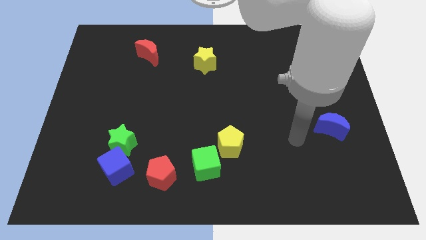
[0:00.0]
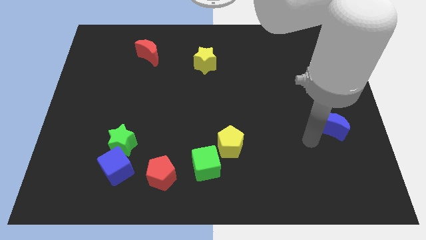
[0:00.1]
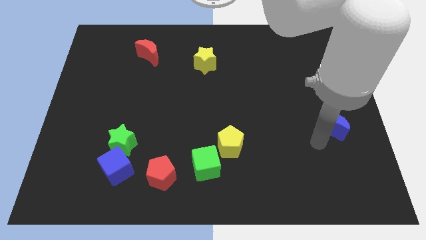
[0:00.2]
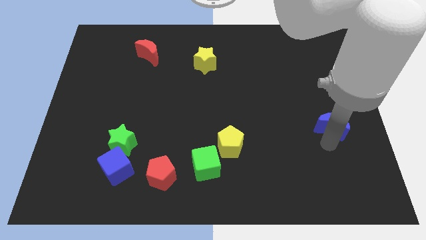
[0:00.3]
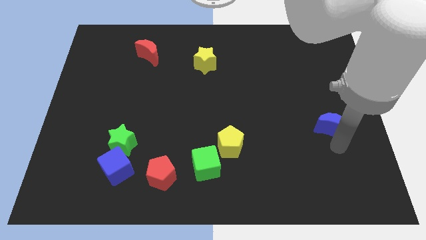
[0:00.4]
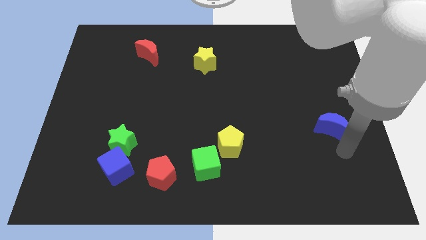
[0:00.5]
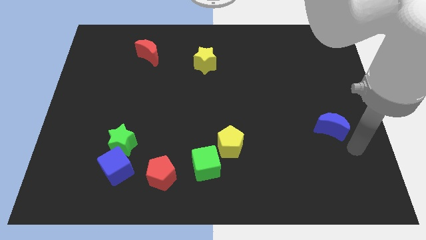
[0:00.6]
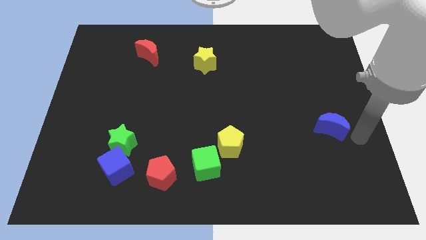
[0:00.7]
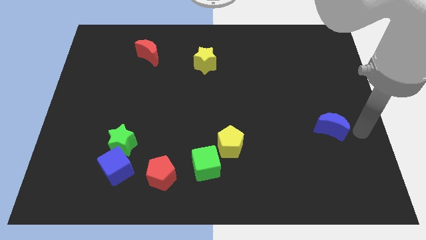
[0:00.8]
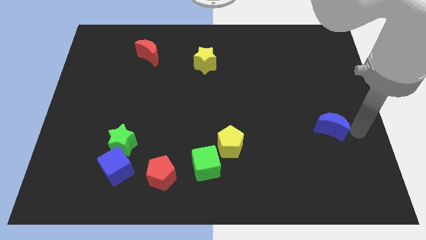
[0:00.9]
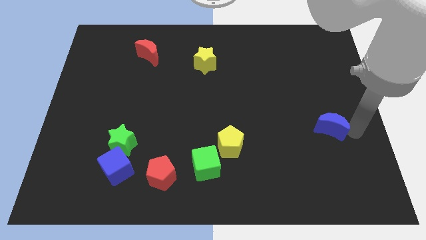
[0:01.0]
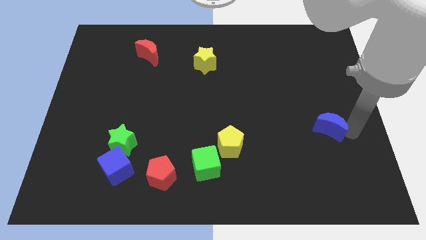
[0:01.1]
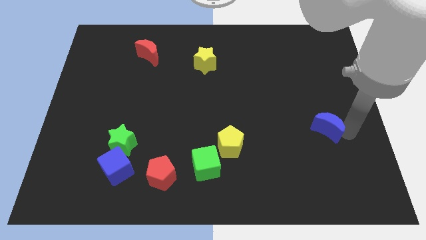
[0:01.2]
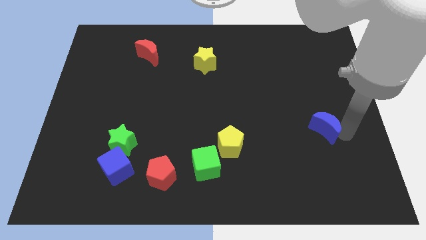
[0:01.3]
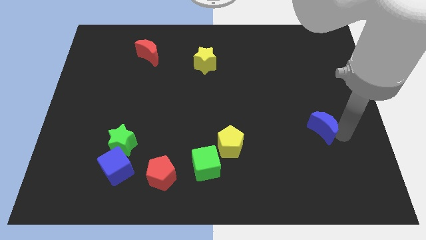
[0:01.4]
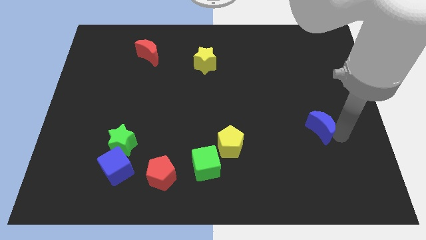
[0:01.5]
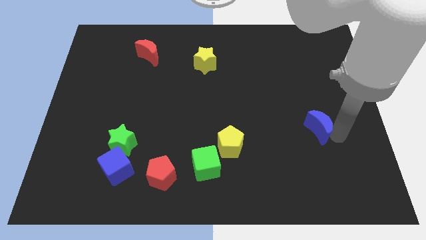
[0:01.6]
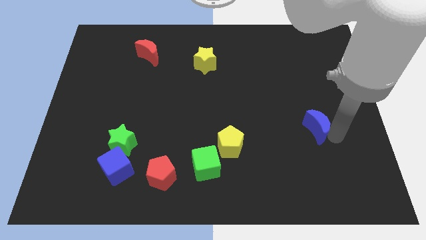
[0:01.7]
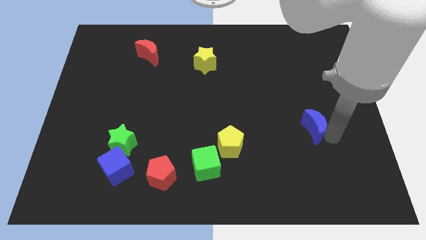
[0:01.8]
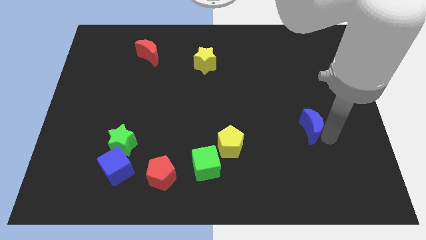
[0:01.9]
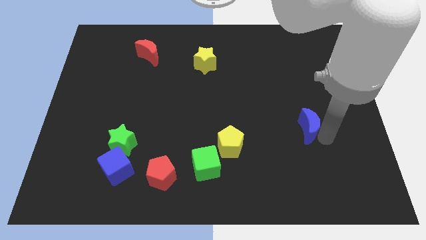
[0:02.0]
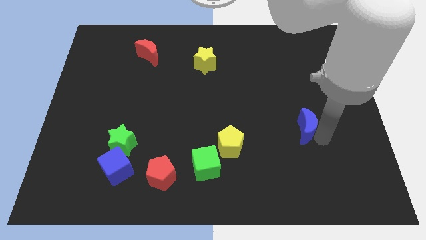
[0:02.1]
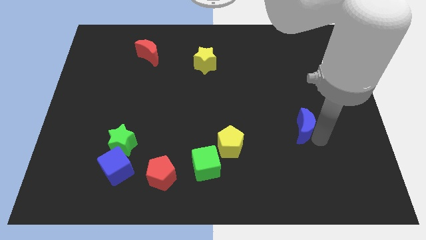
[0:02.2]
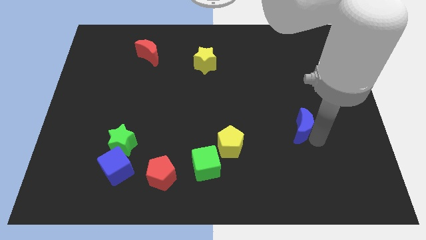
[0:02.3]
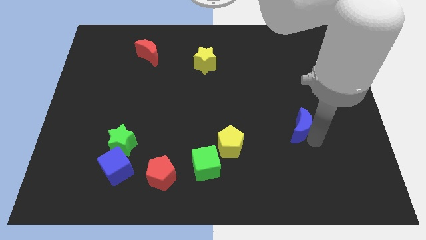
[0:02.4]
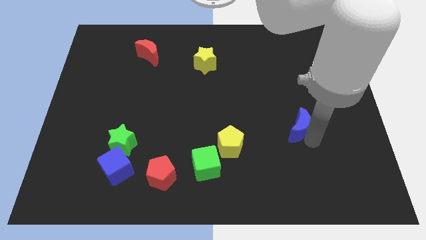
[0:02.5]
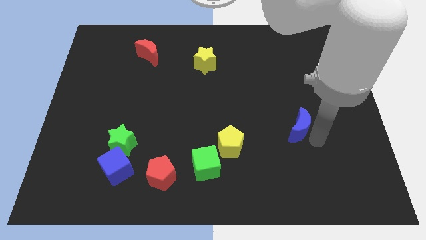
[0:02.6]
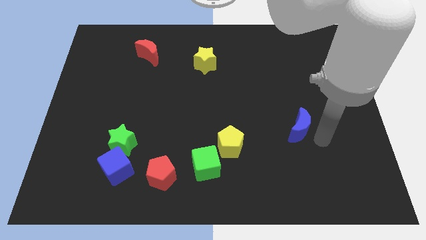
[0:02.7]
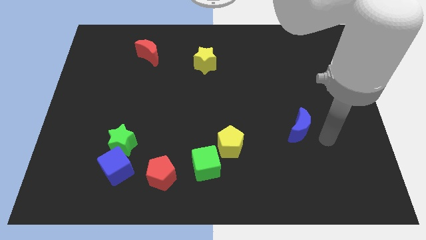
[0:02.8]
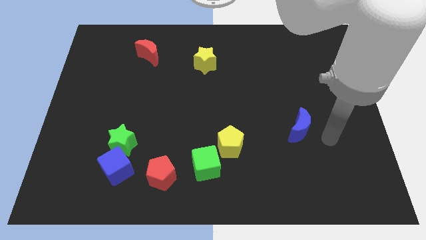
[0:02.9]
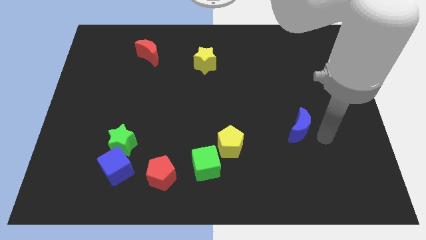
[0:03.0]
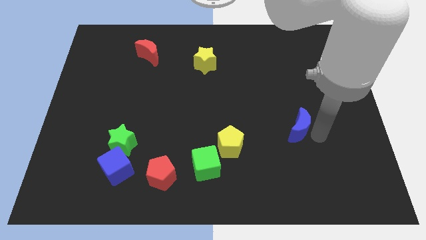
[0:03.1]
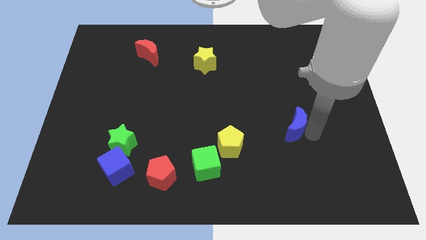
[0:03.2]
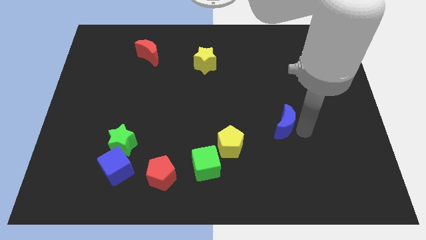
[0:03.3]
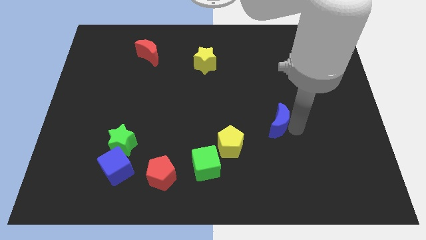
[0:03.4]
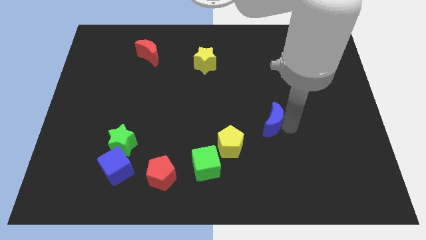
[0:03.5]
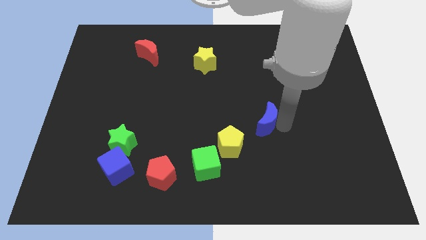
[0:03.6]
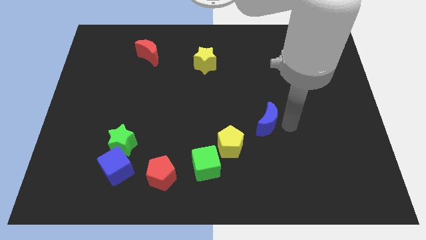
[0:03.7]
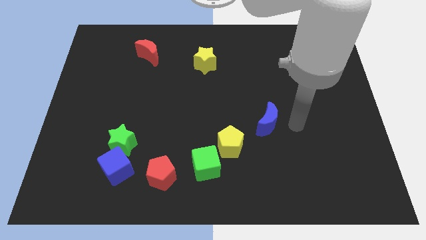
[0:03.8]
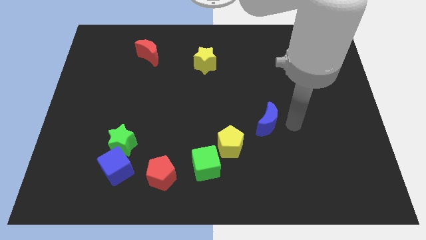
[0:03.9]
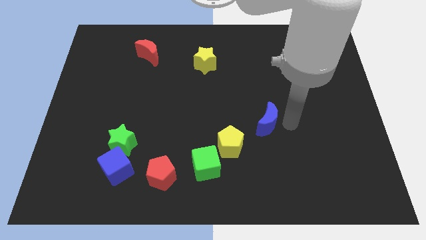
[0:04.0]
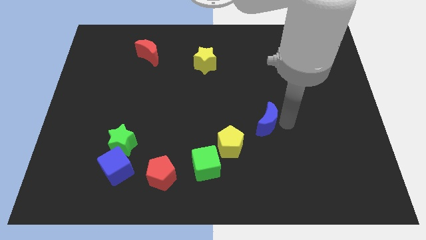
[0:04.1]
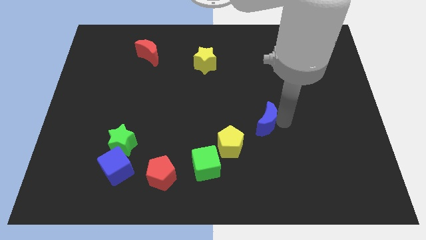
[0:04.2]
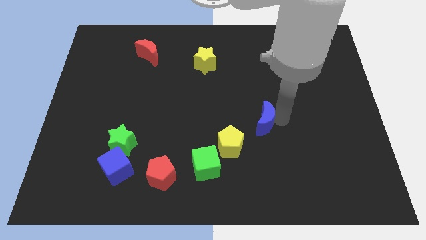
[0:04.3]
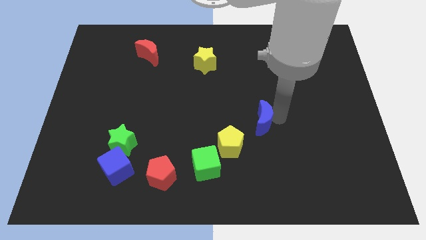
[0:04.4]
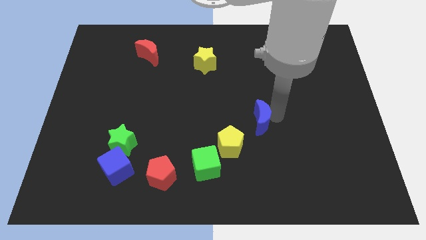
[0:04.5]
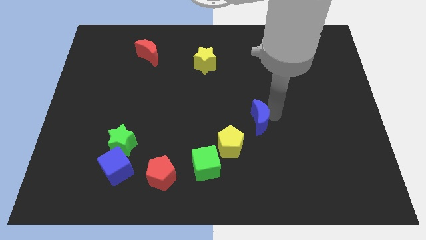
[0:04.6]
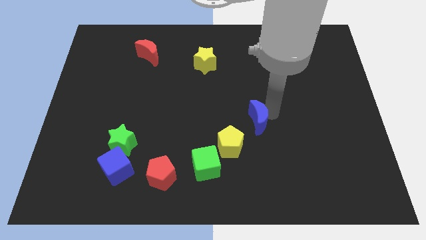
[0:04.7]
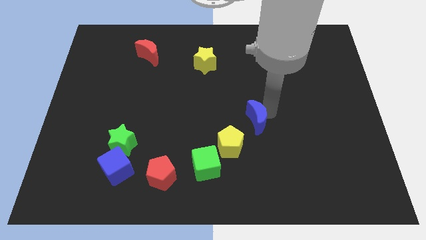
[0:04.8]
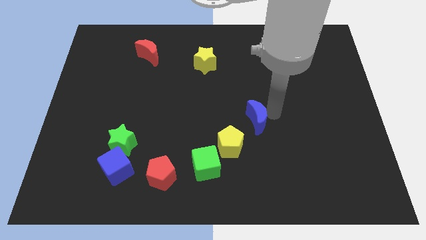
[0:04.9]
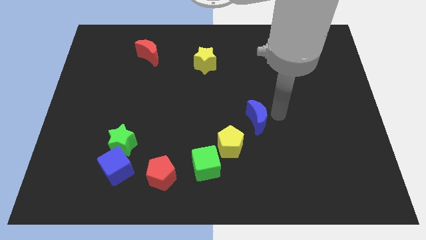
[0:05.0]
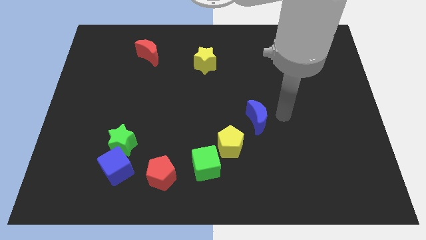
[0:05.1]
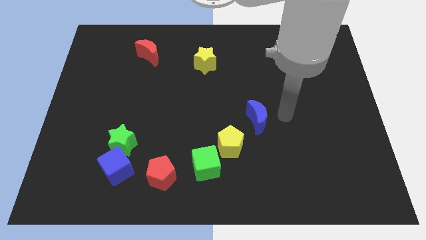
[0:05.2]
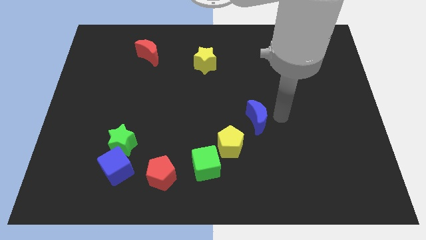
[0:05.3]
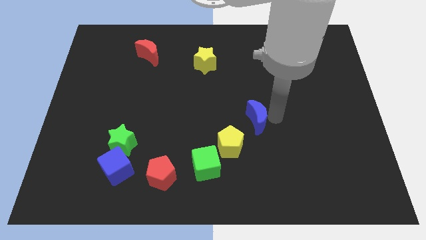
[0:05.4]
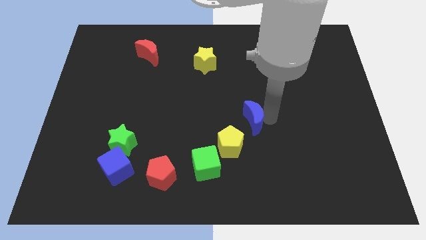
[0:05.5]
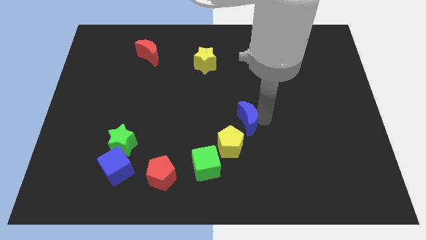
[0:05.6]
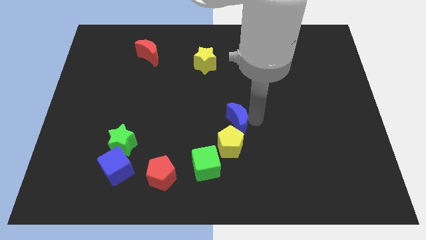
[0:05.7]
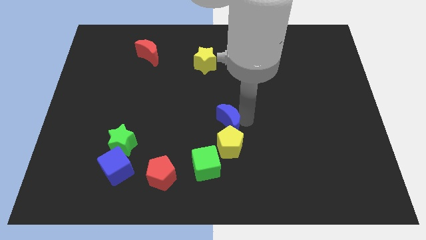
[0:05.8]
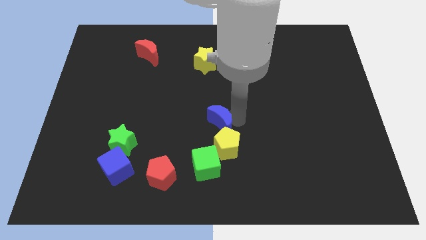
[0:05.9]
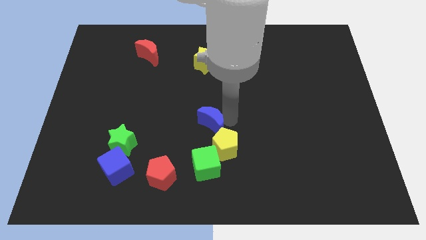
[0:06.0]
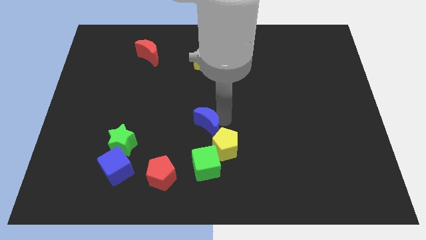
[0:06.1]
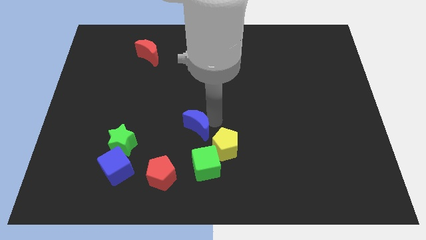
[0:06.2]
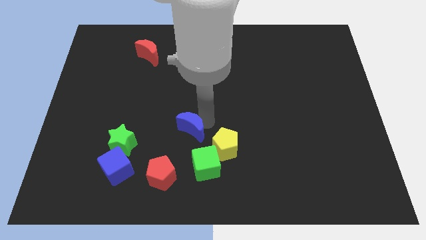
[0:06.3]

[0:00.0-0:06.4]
put the blue moon to the left side of the yellow pentagon

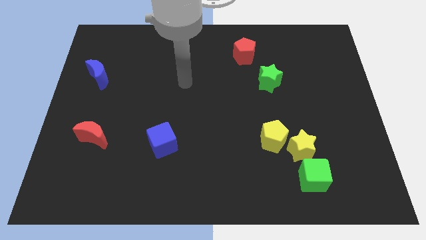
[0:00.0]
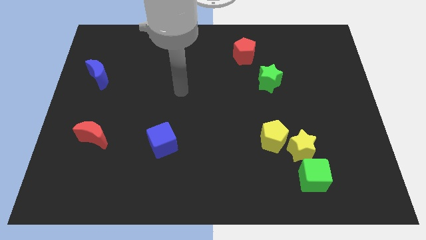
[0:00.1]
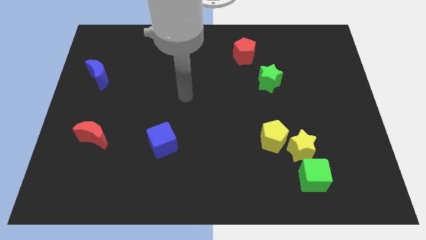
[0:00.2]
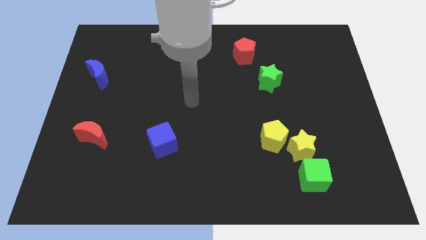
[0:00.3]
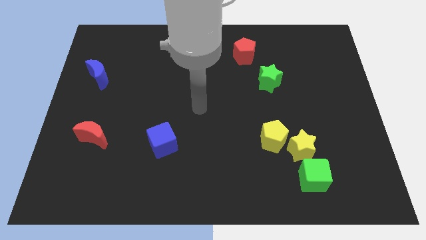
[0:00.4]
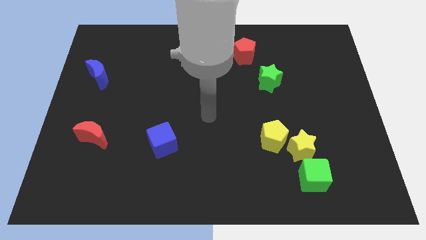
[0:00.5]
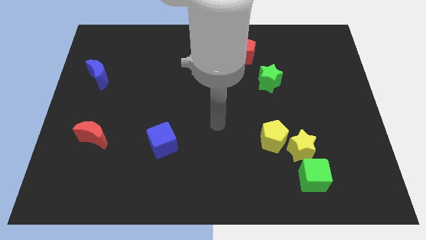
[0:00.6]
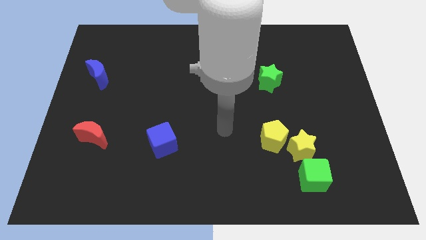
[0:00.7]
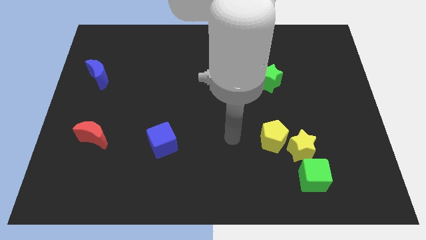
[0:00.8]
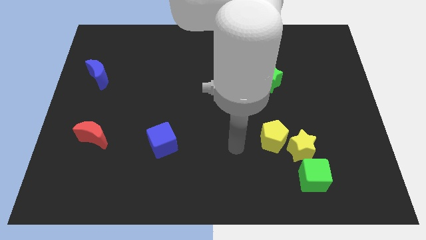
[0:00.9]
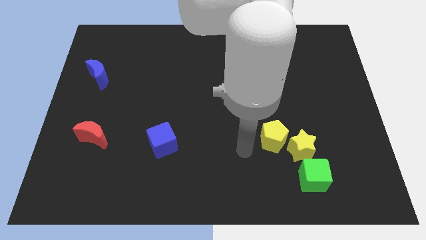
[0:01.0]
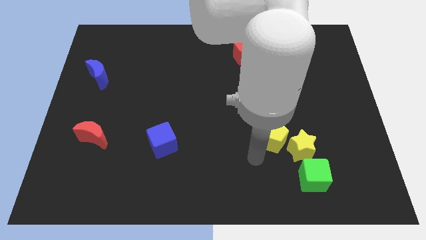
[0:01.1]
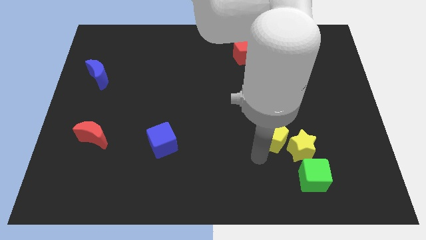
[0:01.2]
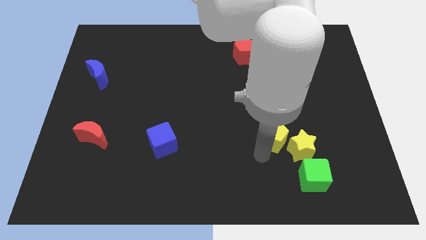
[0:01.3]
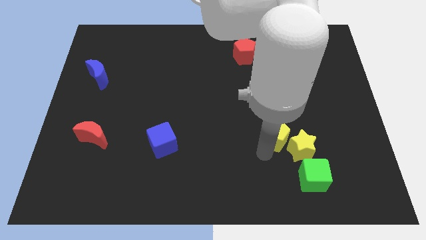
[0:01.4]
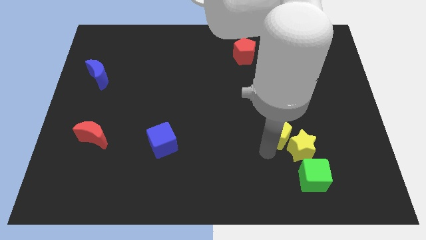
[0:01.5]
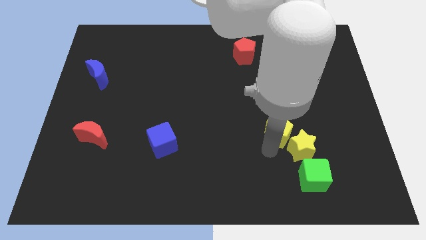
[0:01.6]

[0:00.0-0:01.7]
move the yellow pentagon to the top of the yellow star
